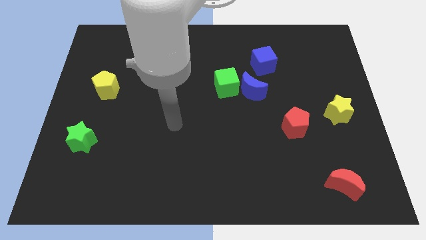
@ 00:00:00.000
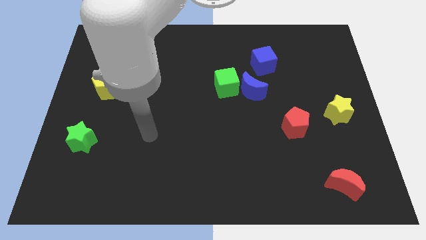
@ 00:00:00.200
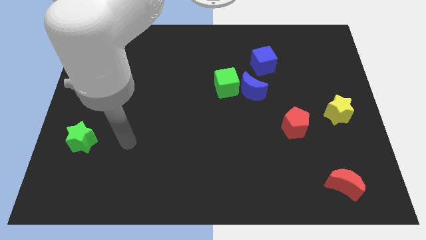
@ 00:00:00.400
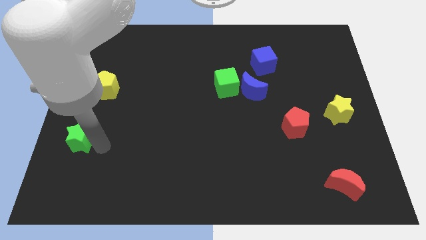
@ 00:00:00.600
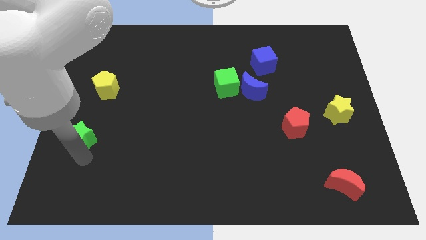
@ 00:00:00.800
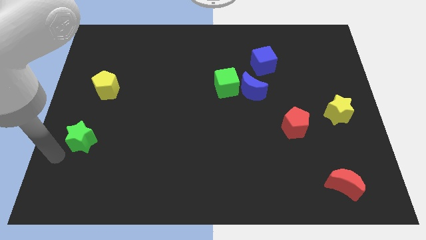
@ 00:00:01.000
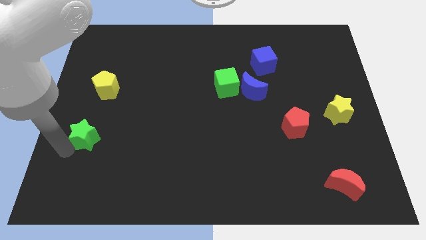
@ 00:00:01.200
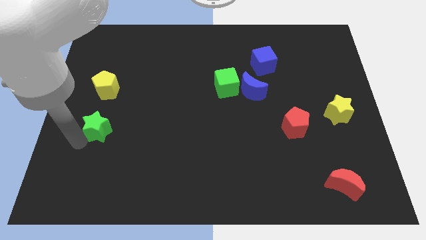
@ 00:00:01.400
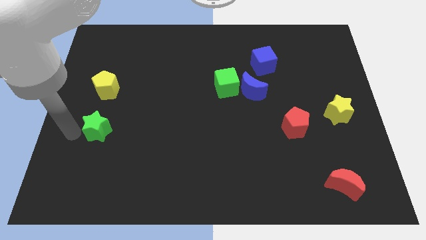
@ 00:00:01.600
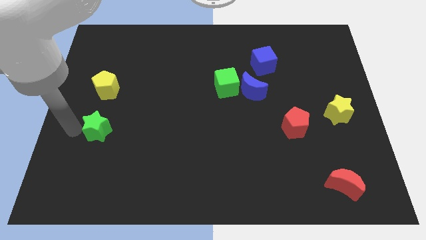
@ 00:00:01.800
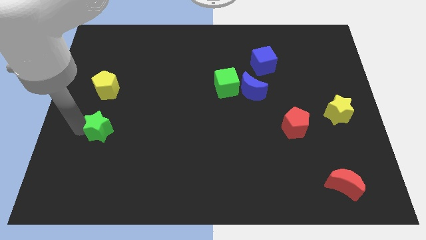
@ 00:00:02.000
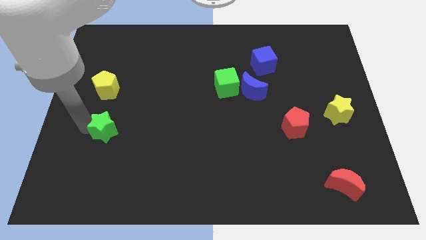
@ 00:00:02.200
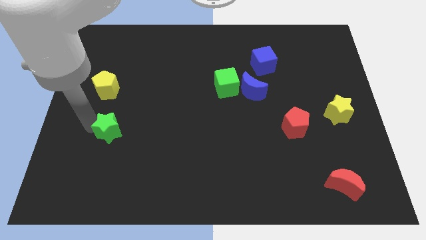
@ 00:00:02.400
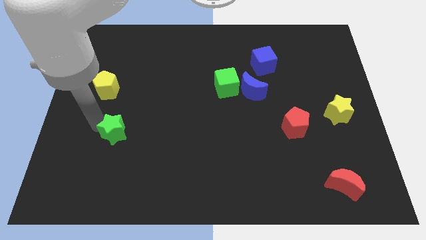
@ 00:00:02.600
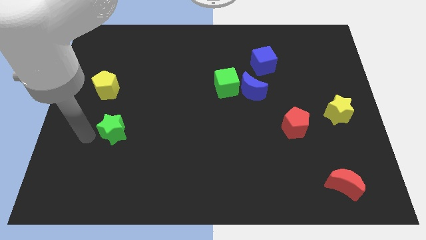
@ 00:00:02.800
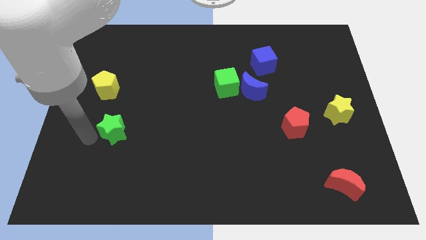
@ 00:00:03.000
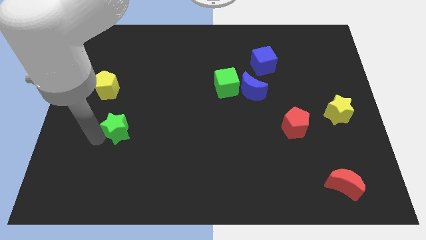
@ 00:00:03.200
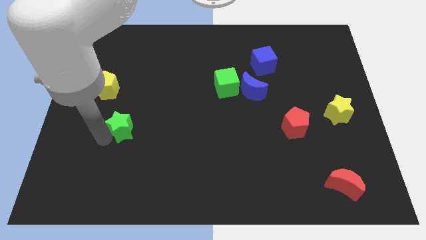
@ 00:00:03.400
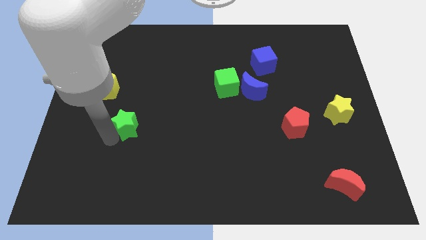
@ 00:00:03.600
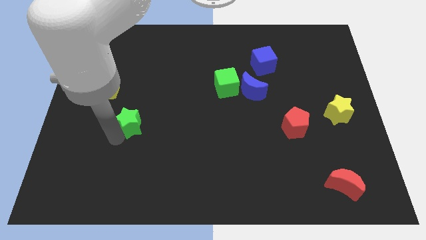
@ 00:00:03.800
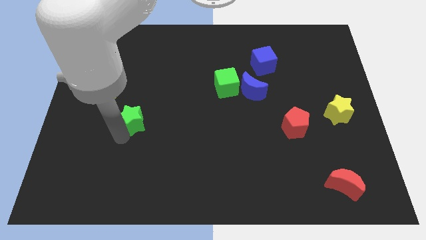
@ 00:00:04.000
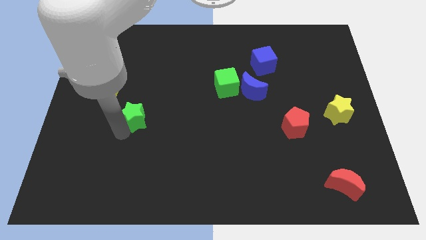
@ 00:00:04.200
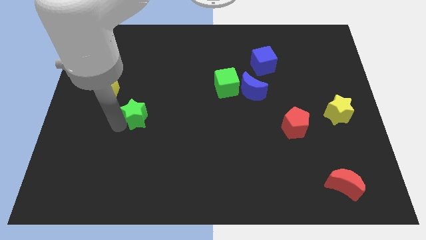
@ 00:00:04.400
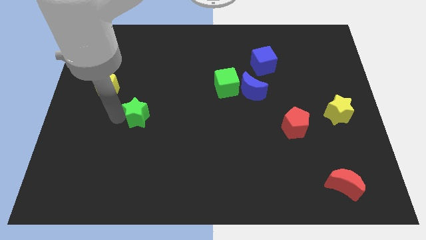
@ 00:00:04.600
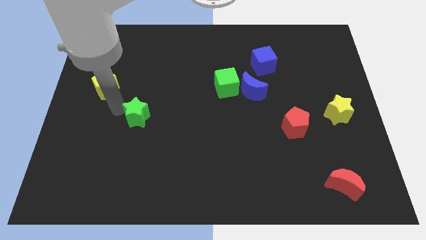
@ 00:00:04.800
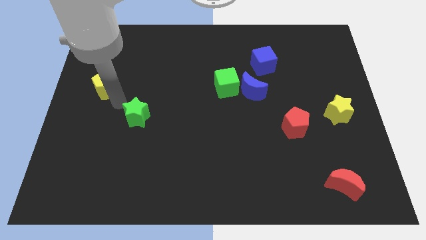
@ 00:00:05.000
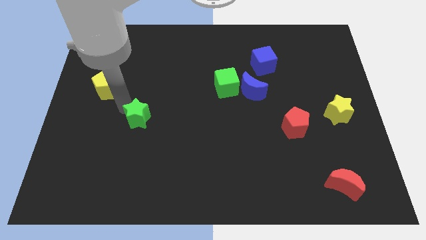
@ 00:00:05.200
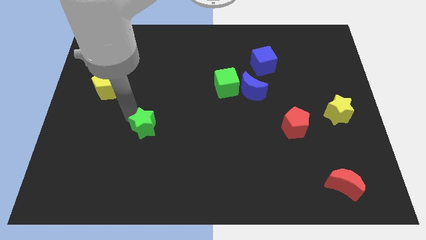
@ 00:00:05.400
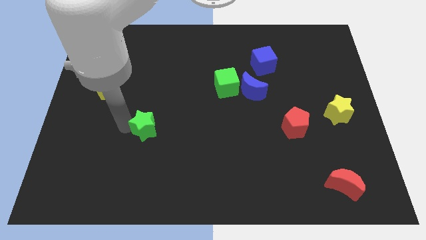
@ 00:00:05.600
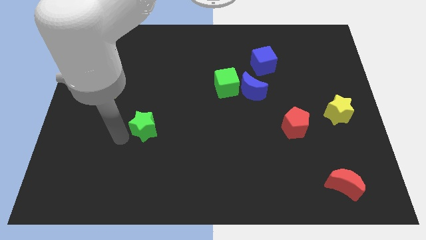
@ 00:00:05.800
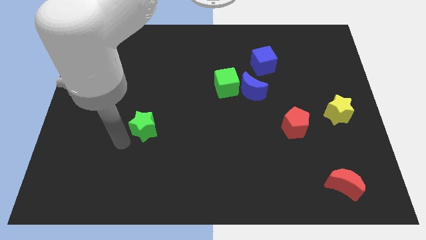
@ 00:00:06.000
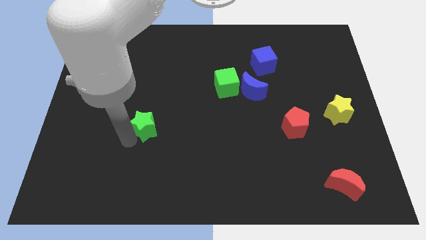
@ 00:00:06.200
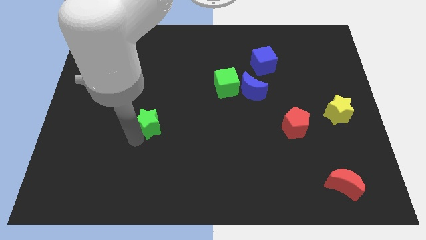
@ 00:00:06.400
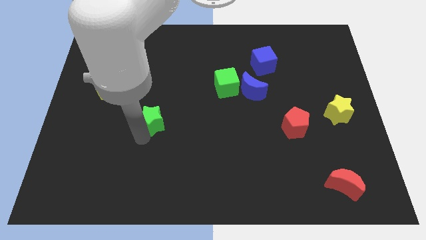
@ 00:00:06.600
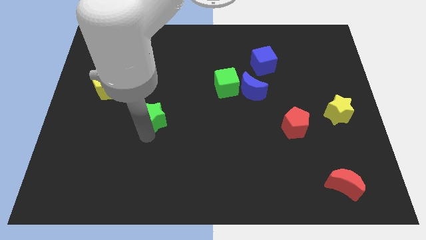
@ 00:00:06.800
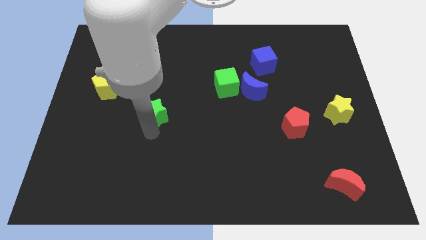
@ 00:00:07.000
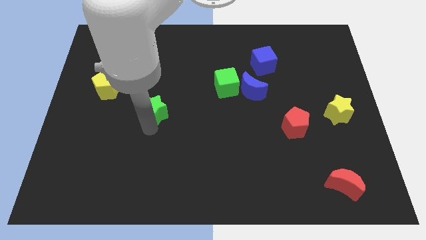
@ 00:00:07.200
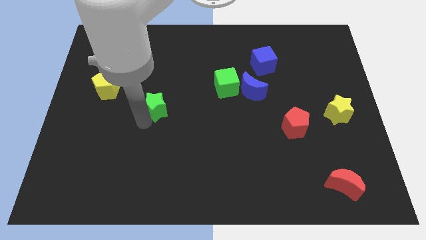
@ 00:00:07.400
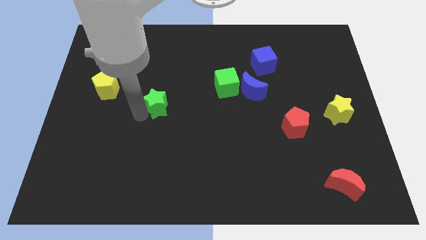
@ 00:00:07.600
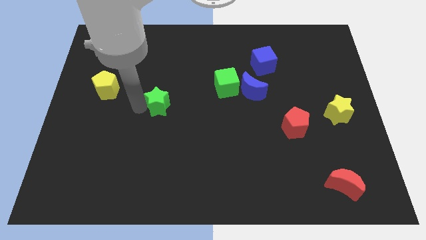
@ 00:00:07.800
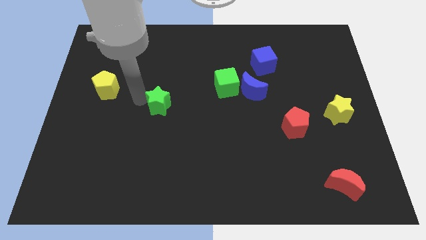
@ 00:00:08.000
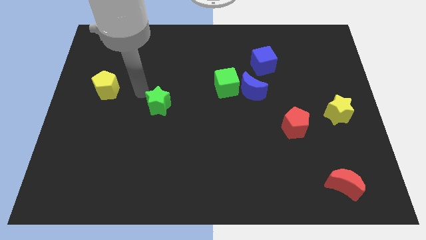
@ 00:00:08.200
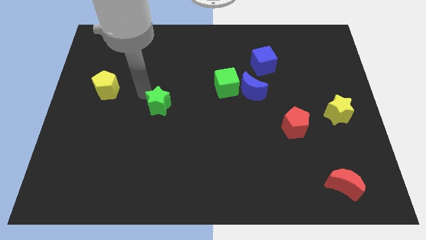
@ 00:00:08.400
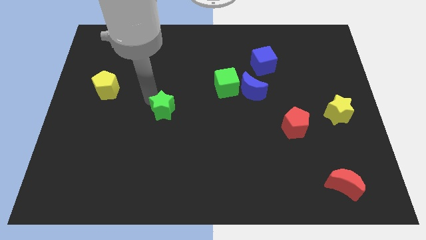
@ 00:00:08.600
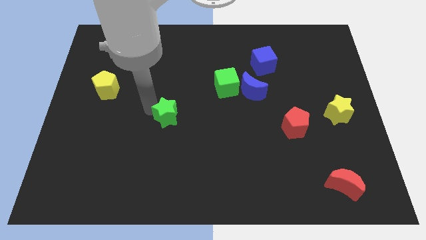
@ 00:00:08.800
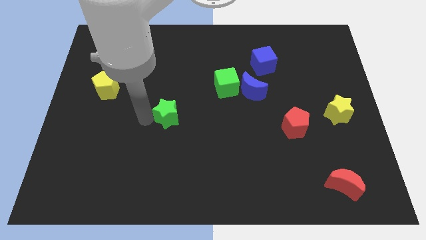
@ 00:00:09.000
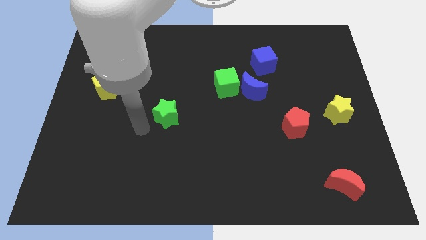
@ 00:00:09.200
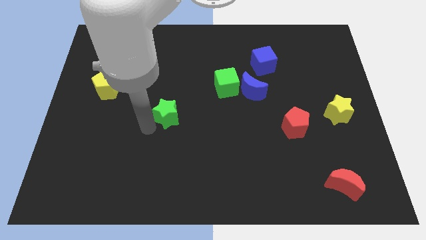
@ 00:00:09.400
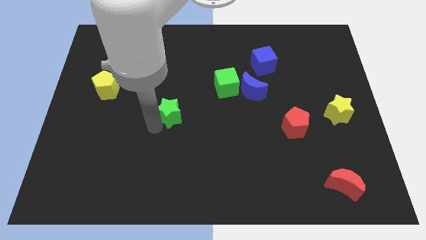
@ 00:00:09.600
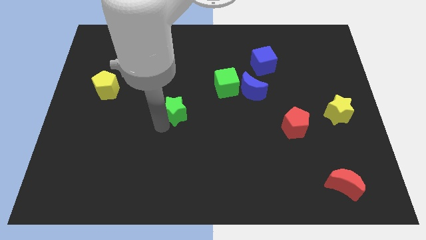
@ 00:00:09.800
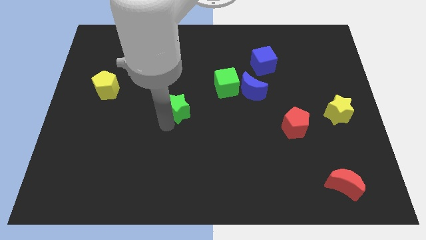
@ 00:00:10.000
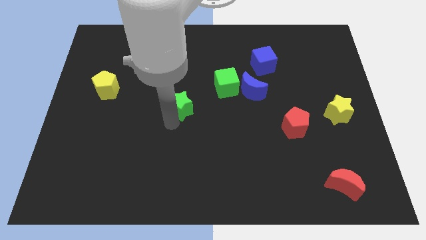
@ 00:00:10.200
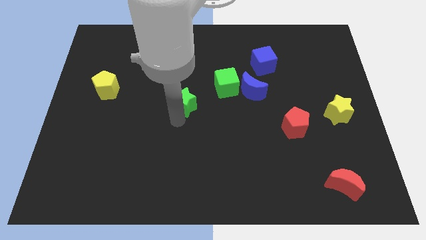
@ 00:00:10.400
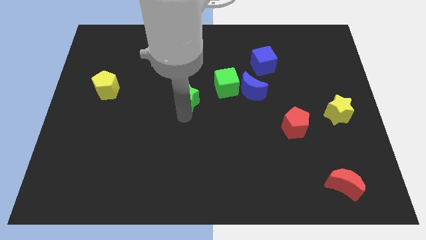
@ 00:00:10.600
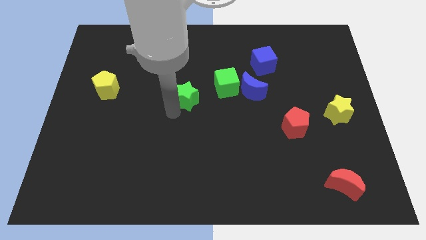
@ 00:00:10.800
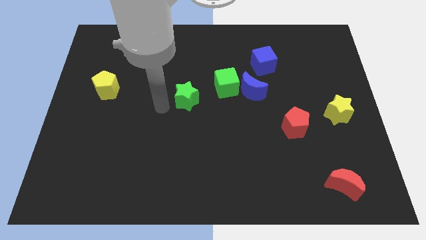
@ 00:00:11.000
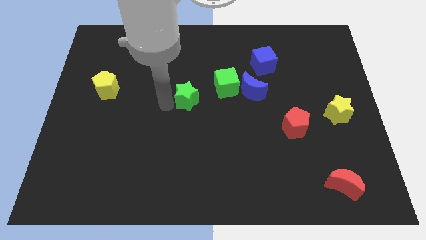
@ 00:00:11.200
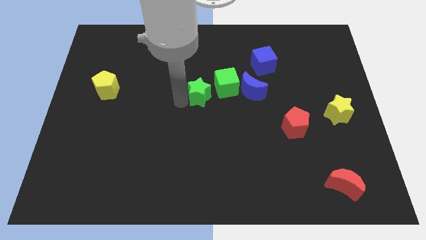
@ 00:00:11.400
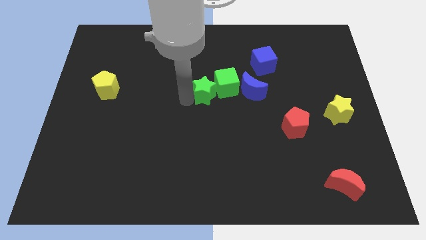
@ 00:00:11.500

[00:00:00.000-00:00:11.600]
slide the green star close to the green cube

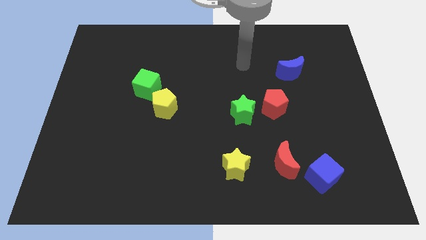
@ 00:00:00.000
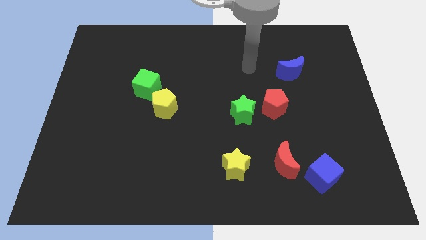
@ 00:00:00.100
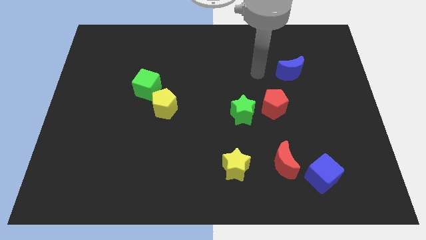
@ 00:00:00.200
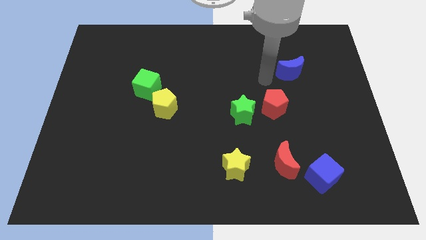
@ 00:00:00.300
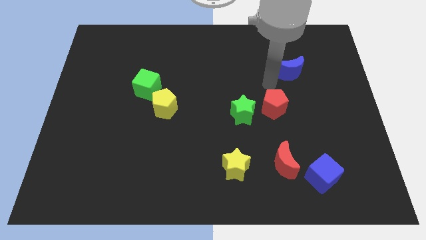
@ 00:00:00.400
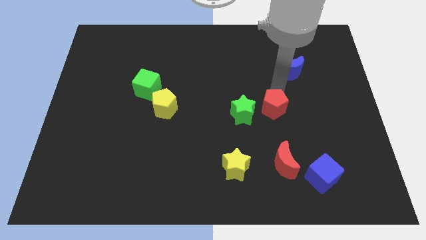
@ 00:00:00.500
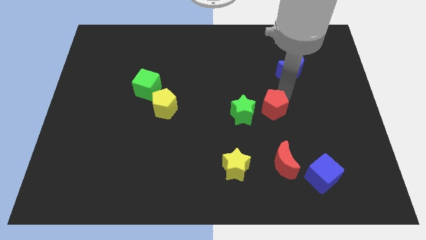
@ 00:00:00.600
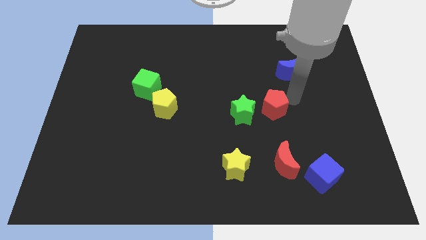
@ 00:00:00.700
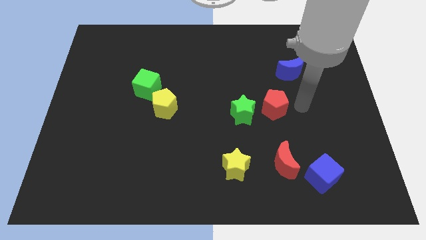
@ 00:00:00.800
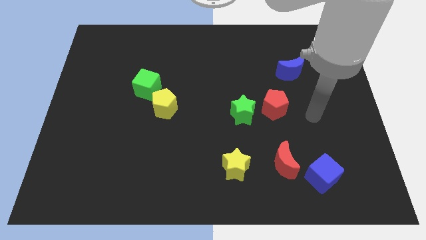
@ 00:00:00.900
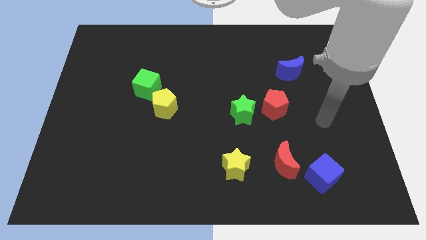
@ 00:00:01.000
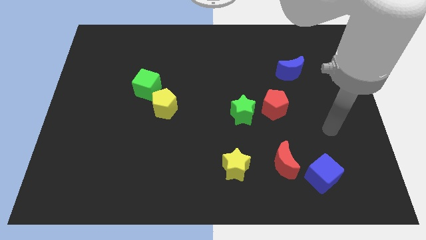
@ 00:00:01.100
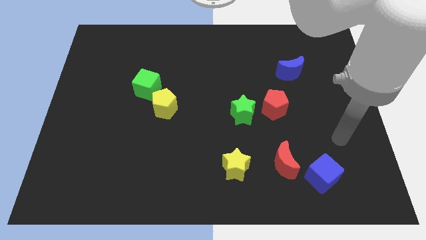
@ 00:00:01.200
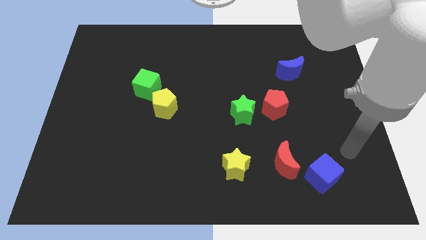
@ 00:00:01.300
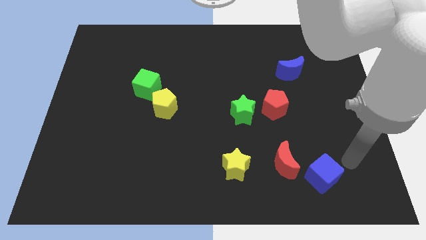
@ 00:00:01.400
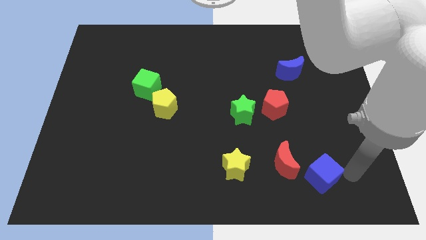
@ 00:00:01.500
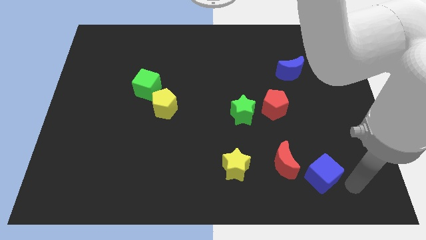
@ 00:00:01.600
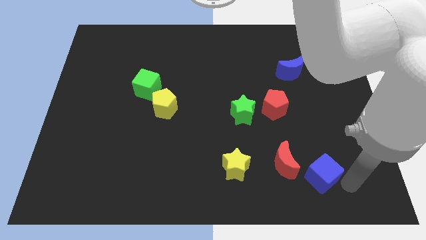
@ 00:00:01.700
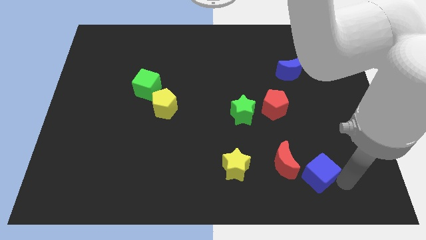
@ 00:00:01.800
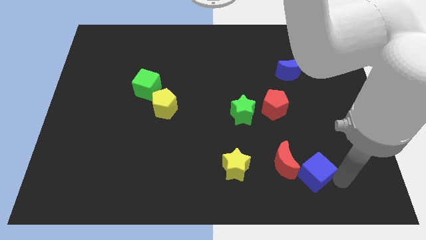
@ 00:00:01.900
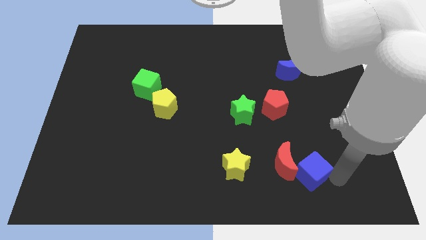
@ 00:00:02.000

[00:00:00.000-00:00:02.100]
push the blue cube to the red moon
